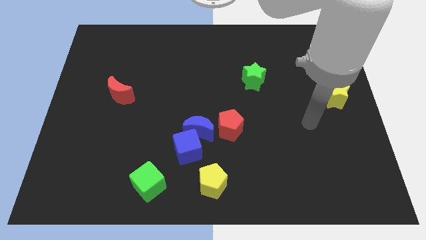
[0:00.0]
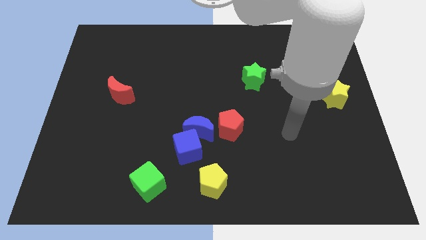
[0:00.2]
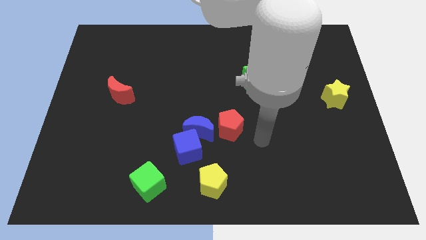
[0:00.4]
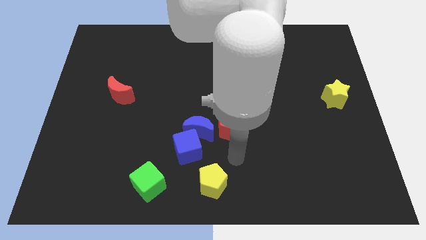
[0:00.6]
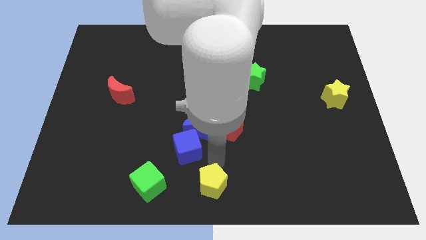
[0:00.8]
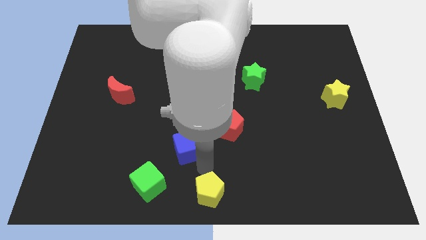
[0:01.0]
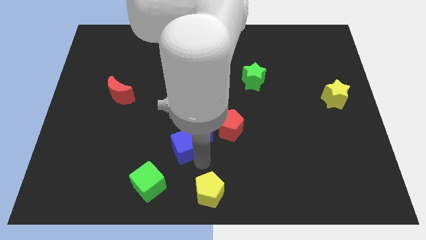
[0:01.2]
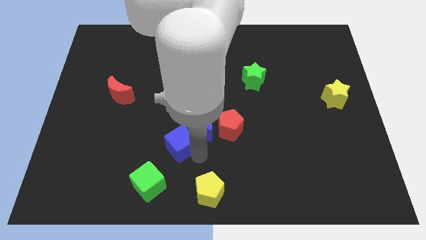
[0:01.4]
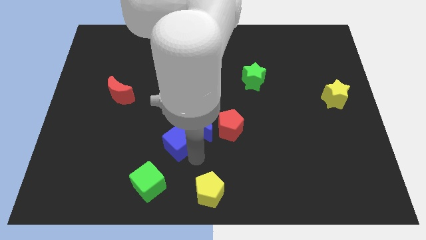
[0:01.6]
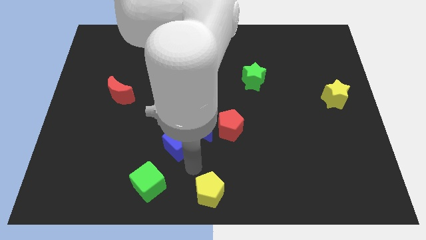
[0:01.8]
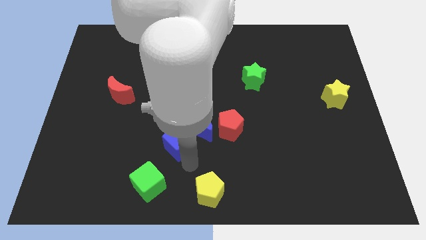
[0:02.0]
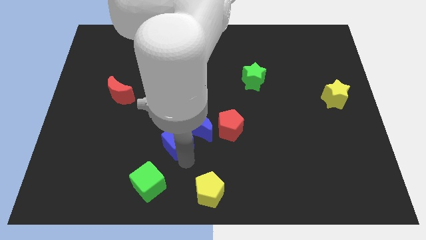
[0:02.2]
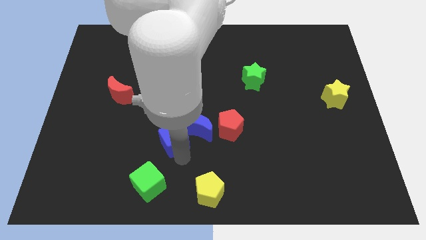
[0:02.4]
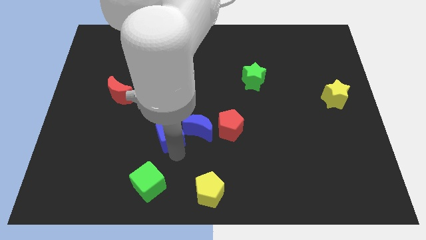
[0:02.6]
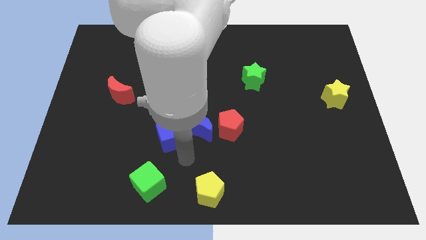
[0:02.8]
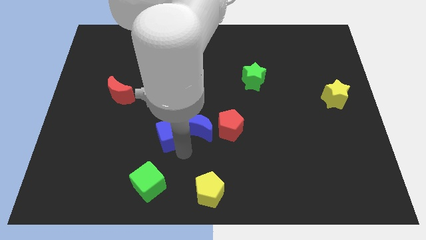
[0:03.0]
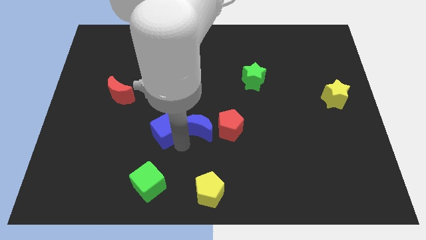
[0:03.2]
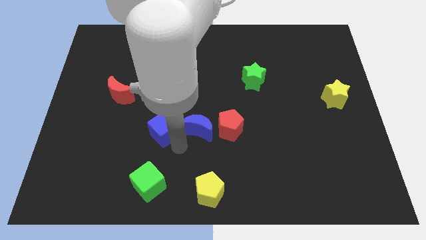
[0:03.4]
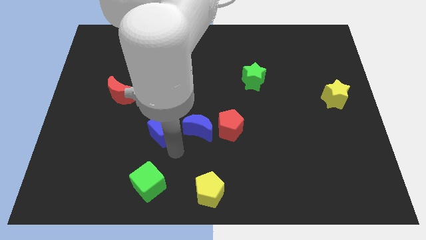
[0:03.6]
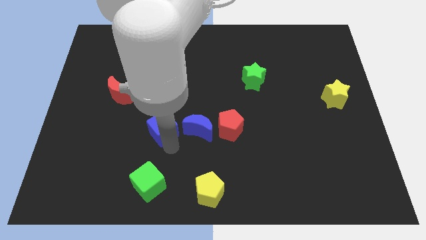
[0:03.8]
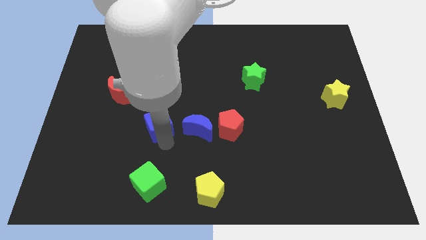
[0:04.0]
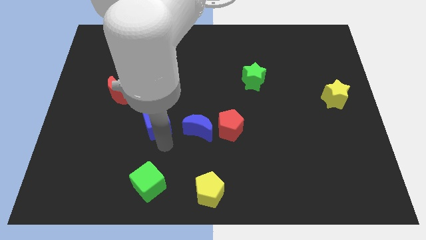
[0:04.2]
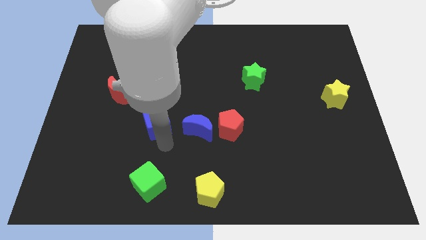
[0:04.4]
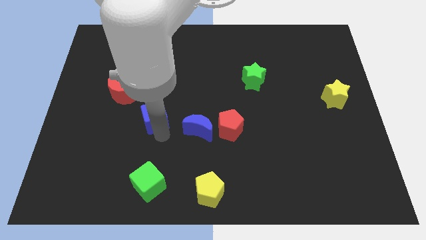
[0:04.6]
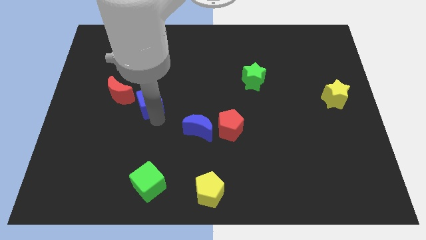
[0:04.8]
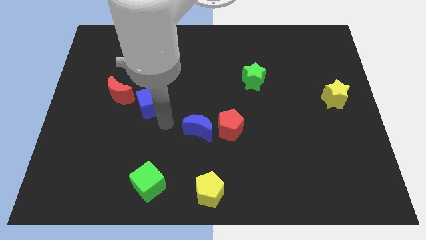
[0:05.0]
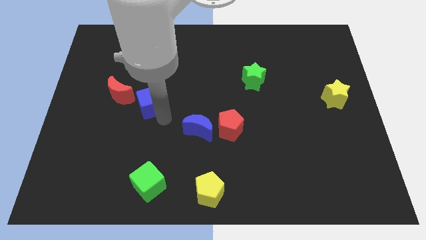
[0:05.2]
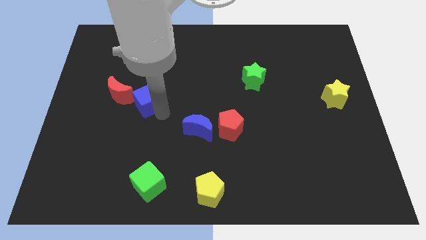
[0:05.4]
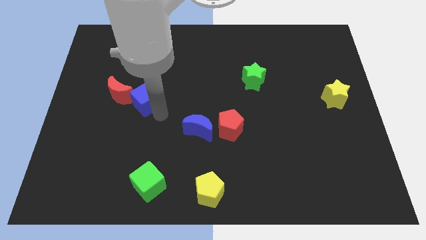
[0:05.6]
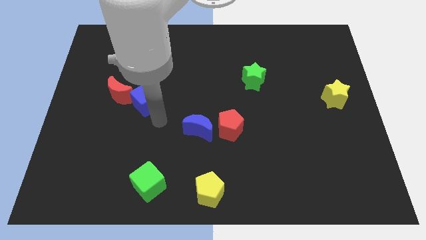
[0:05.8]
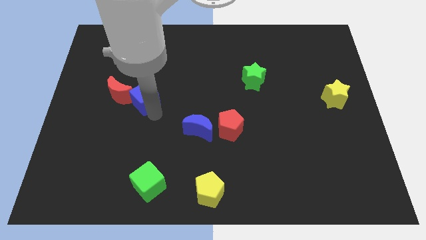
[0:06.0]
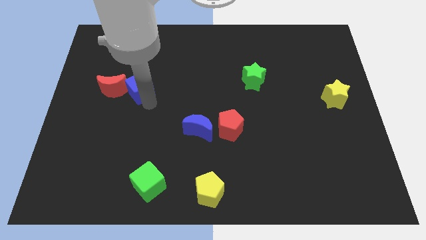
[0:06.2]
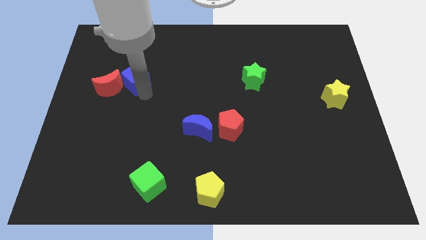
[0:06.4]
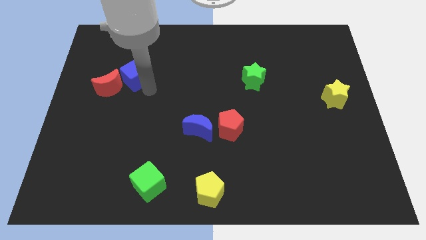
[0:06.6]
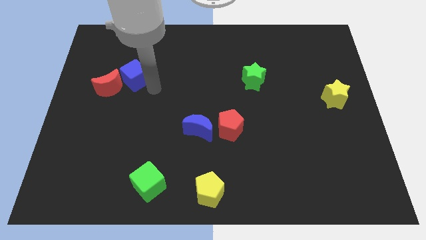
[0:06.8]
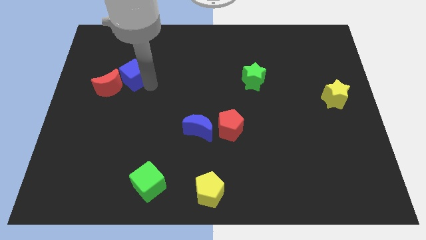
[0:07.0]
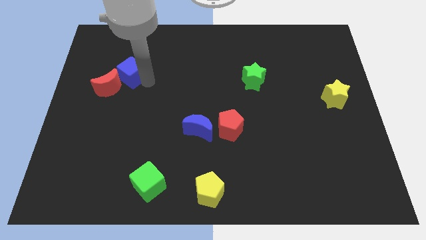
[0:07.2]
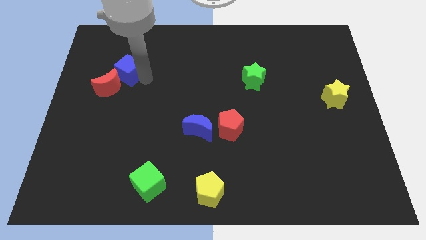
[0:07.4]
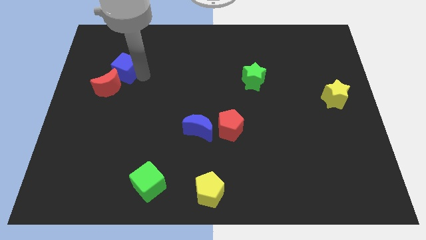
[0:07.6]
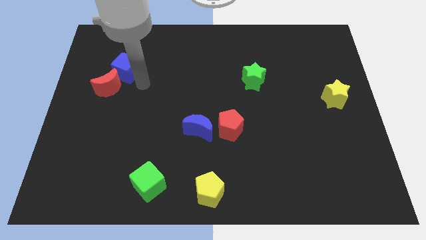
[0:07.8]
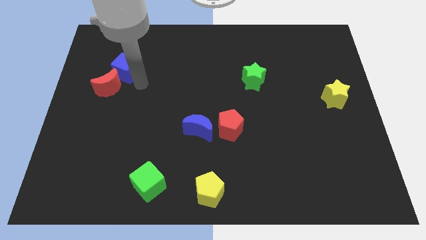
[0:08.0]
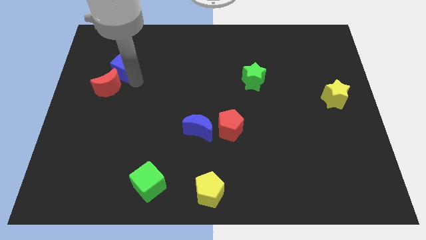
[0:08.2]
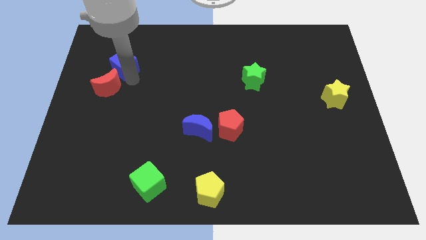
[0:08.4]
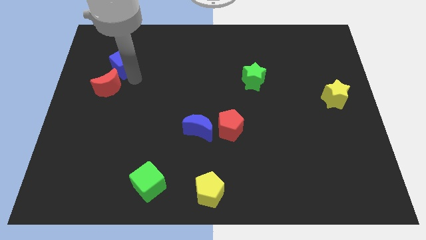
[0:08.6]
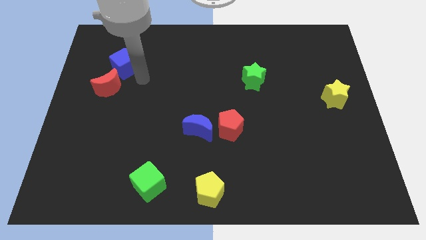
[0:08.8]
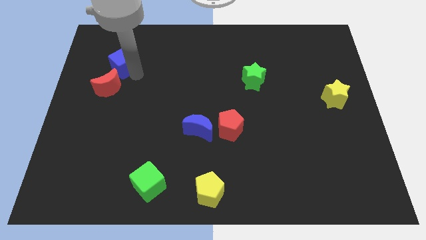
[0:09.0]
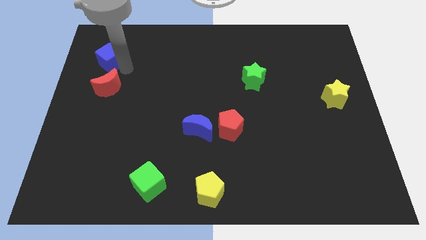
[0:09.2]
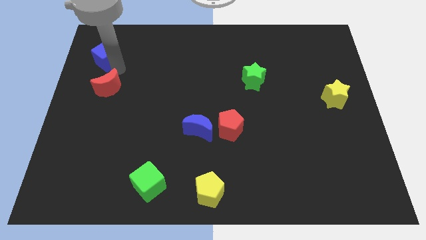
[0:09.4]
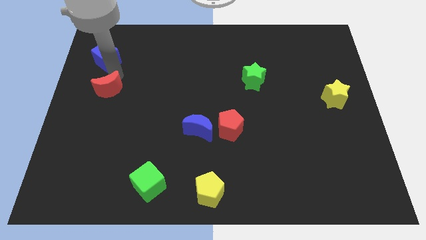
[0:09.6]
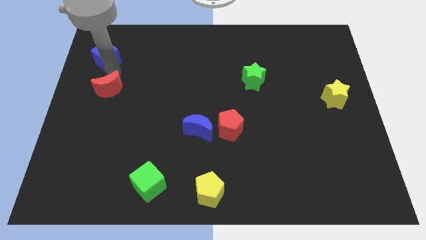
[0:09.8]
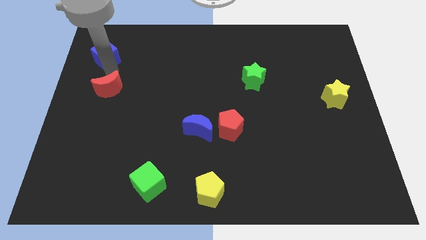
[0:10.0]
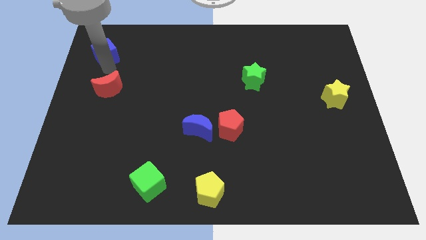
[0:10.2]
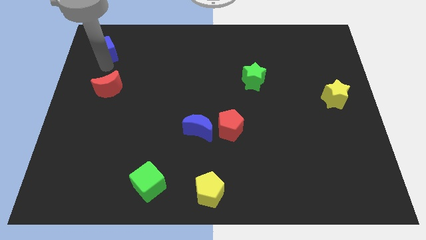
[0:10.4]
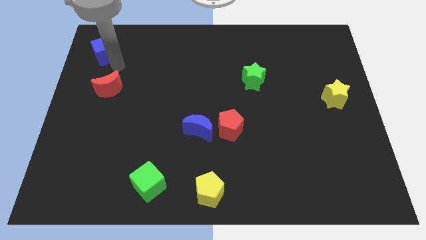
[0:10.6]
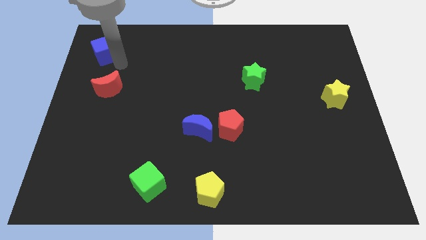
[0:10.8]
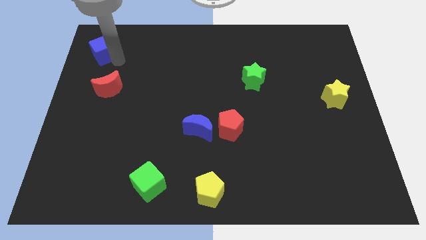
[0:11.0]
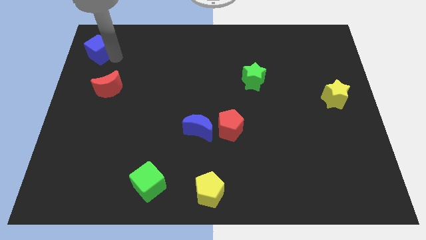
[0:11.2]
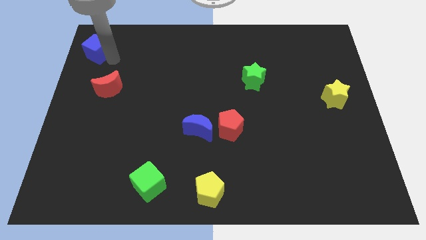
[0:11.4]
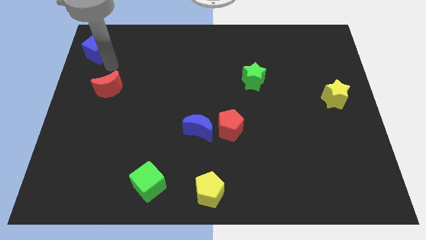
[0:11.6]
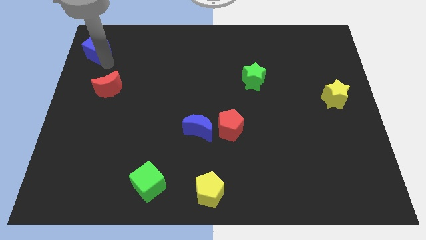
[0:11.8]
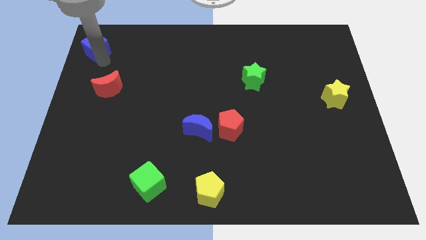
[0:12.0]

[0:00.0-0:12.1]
move the blue cube to the top left of the board
